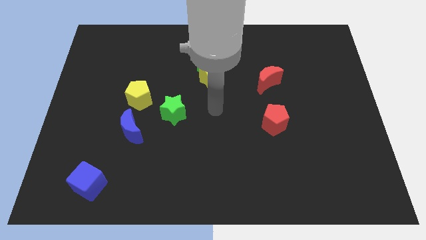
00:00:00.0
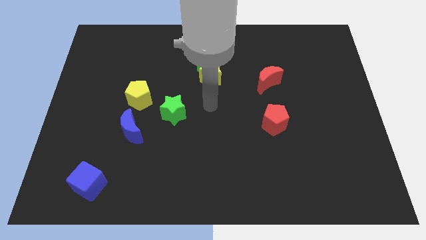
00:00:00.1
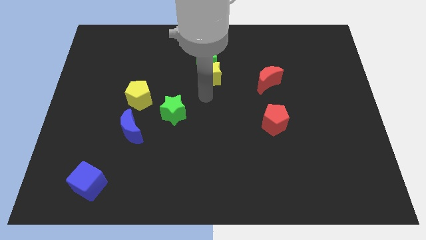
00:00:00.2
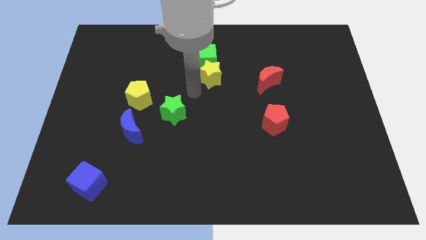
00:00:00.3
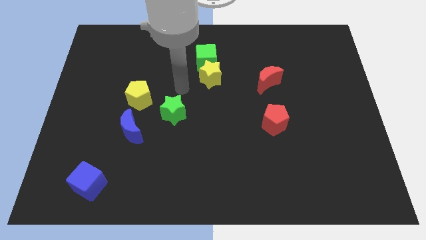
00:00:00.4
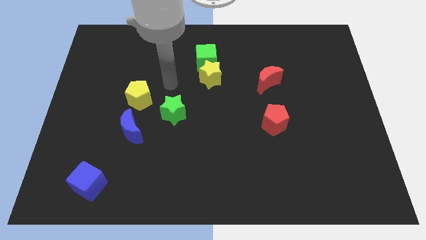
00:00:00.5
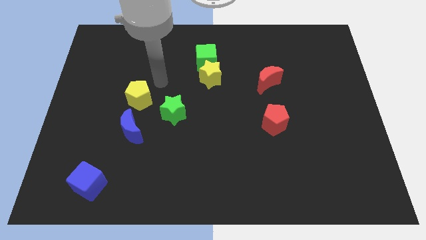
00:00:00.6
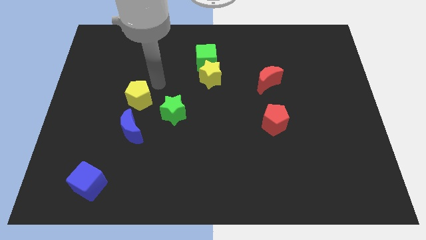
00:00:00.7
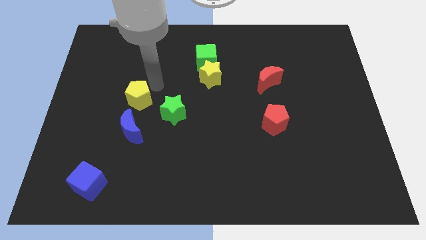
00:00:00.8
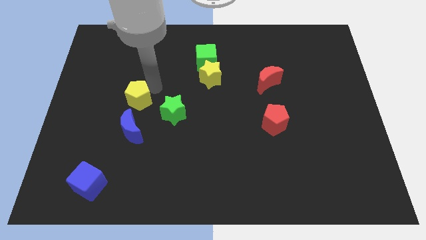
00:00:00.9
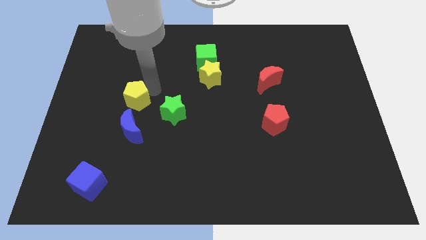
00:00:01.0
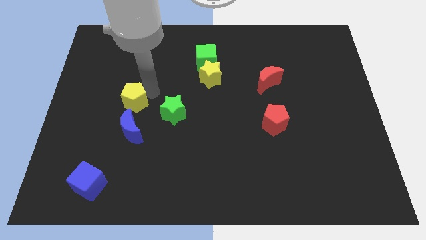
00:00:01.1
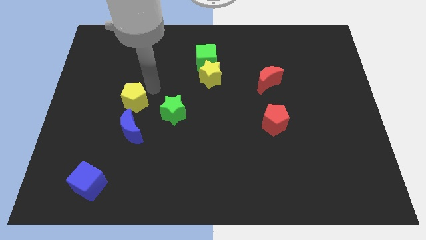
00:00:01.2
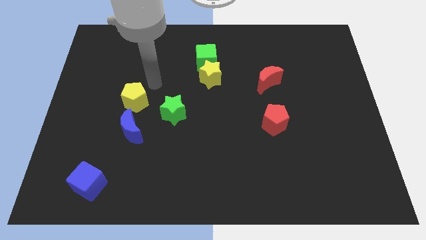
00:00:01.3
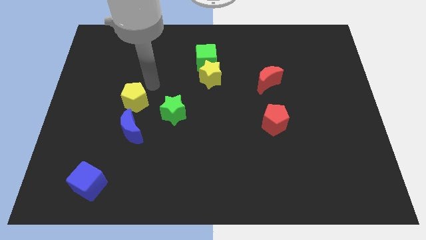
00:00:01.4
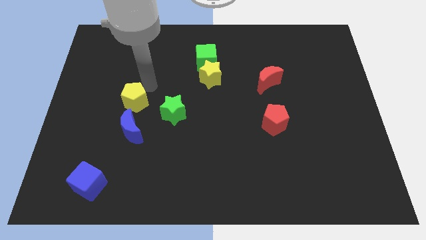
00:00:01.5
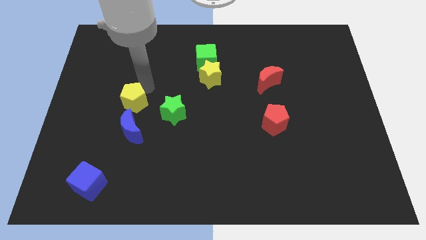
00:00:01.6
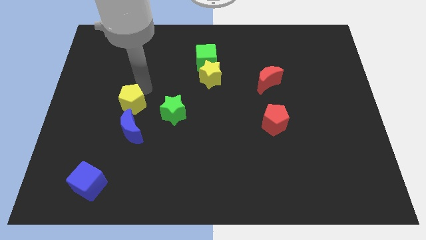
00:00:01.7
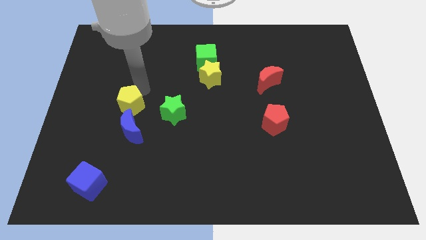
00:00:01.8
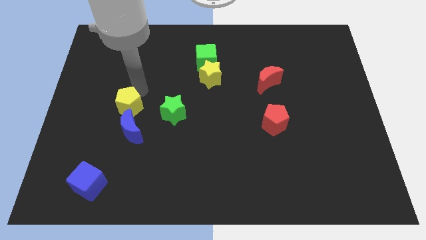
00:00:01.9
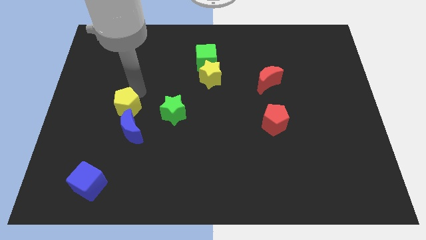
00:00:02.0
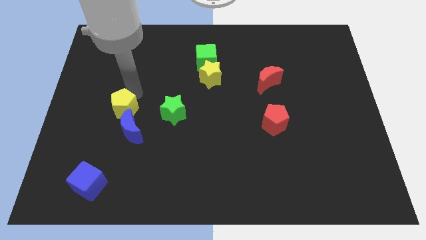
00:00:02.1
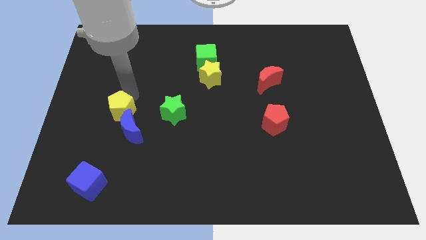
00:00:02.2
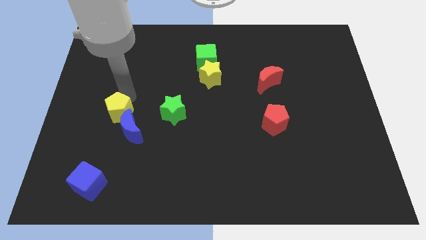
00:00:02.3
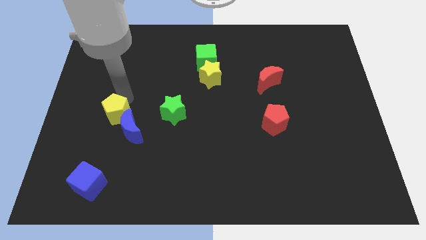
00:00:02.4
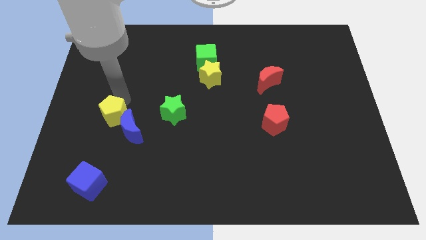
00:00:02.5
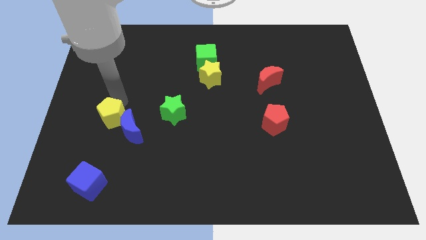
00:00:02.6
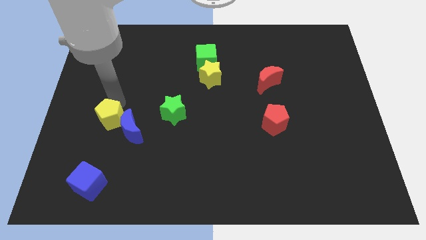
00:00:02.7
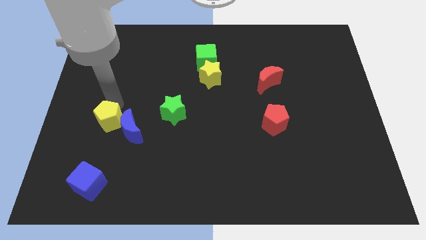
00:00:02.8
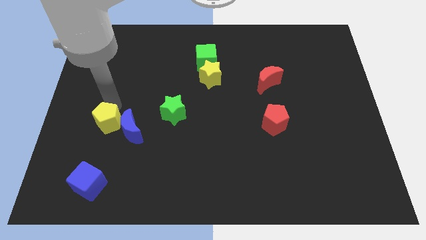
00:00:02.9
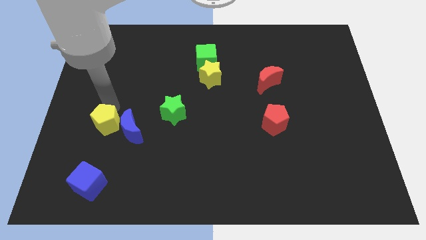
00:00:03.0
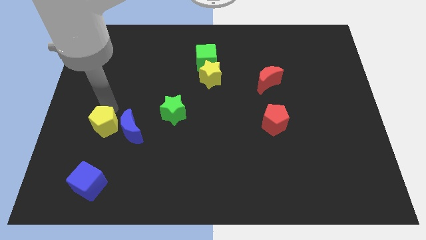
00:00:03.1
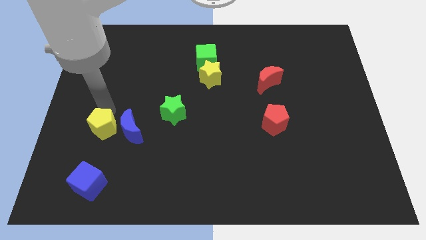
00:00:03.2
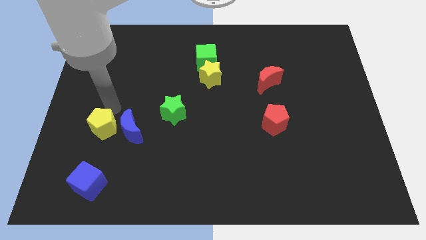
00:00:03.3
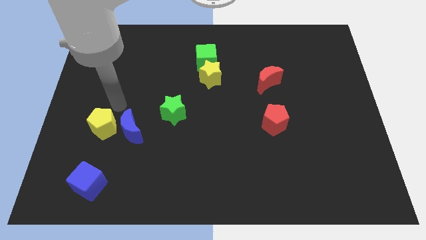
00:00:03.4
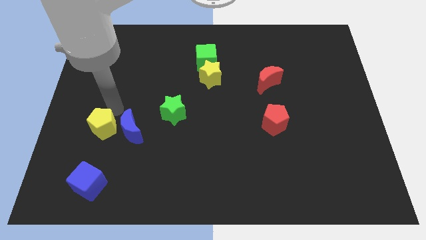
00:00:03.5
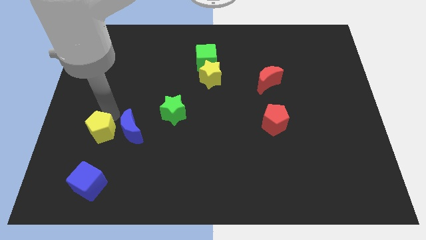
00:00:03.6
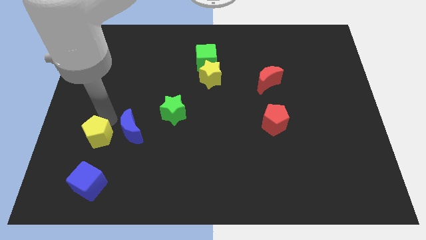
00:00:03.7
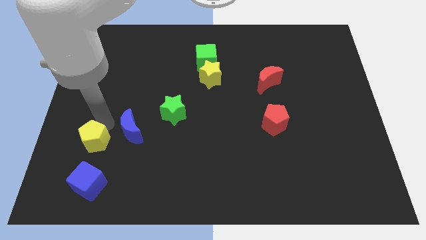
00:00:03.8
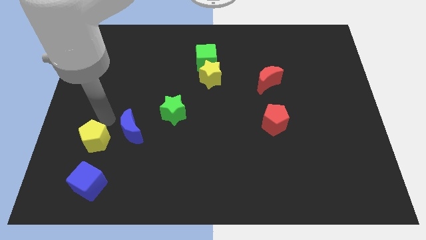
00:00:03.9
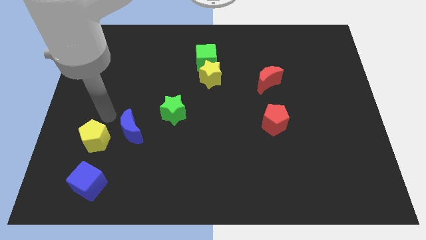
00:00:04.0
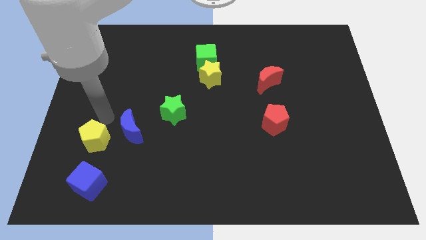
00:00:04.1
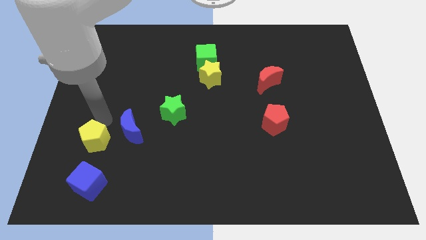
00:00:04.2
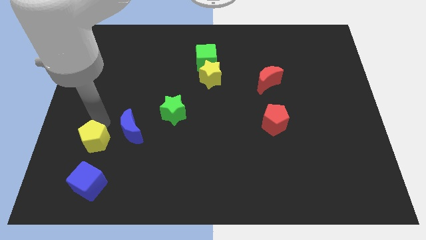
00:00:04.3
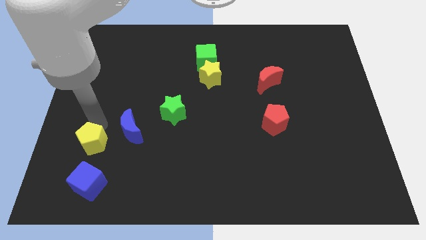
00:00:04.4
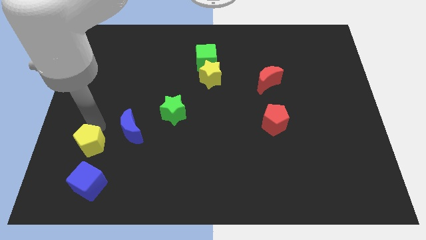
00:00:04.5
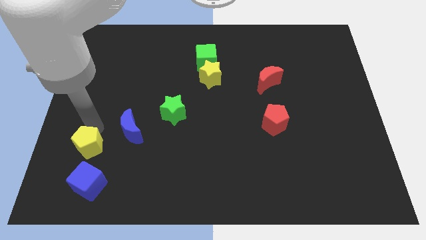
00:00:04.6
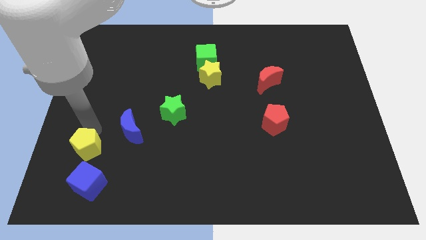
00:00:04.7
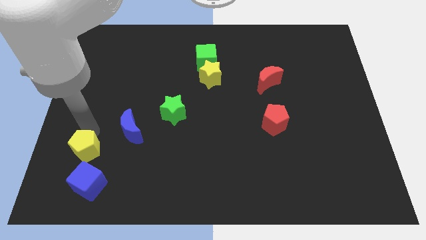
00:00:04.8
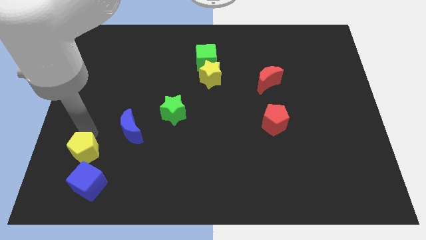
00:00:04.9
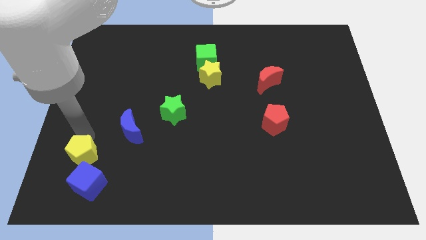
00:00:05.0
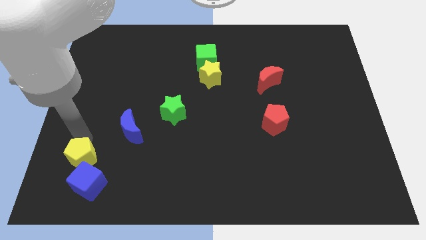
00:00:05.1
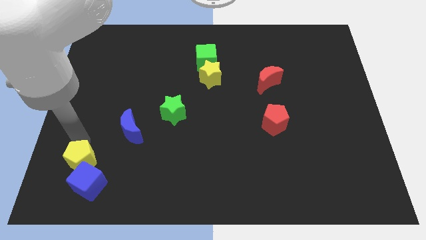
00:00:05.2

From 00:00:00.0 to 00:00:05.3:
push the yellow pentagon towards the blue cube

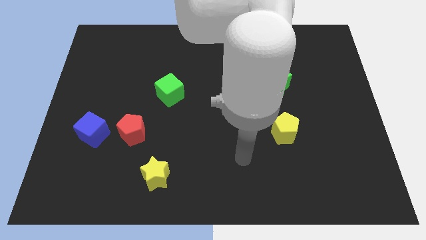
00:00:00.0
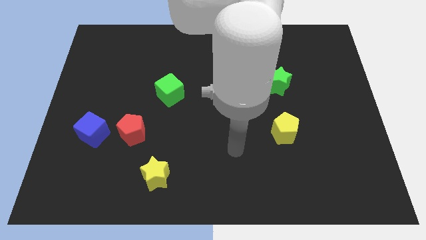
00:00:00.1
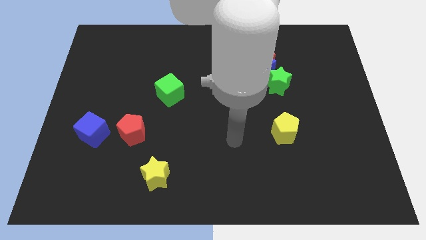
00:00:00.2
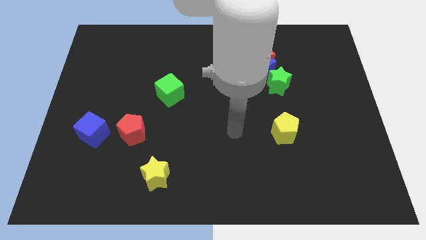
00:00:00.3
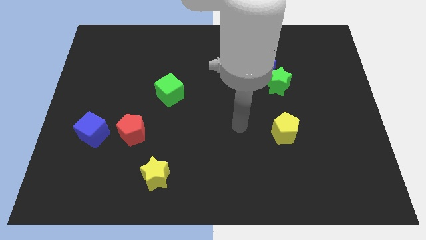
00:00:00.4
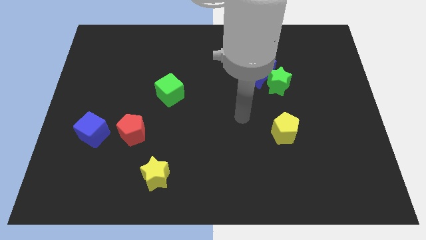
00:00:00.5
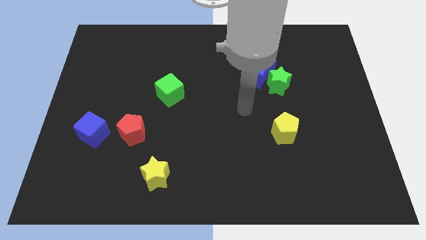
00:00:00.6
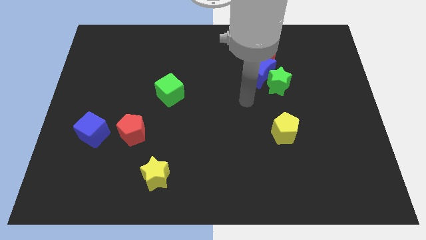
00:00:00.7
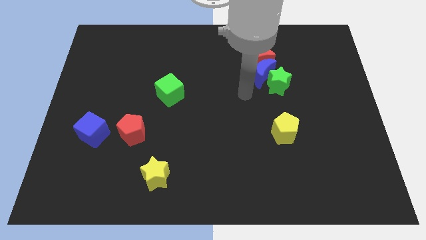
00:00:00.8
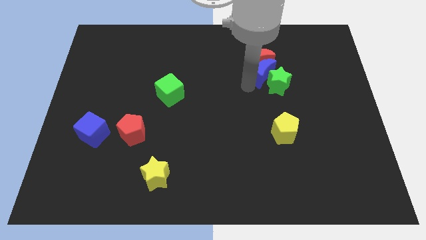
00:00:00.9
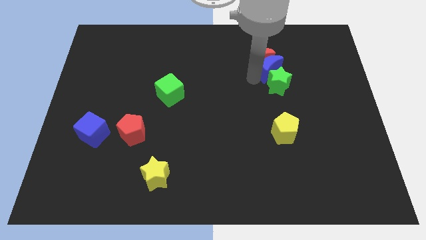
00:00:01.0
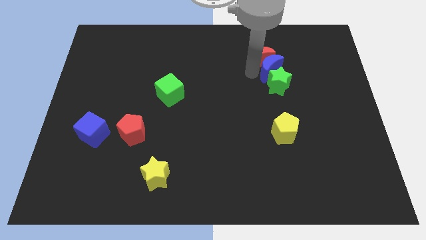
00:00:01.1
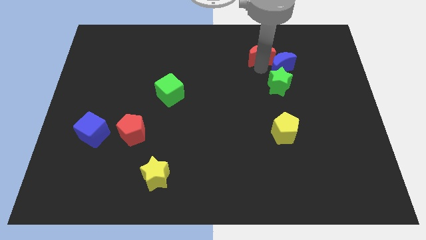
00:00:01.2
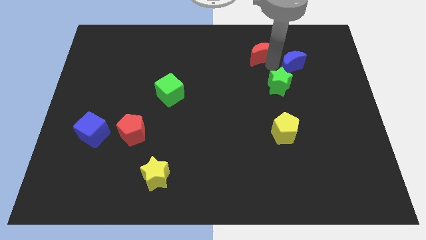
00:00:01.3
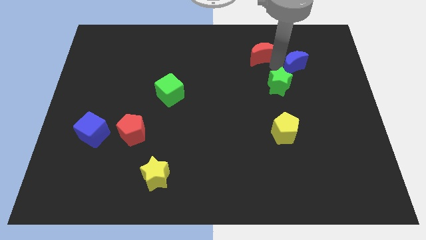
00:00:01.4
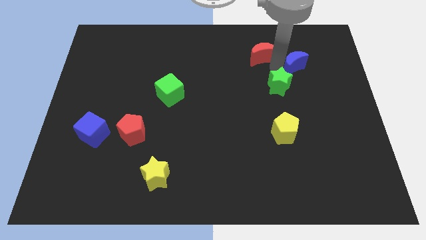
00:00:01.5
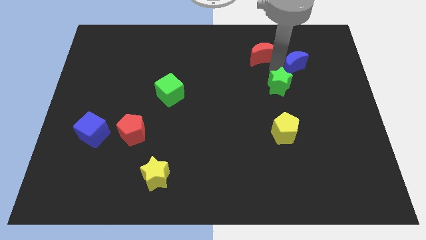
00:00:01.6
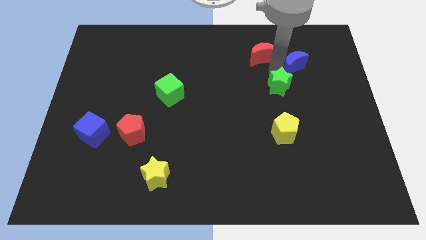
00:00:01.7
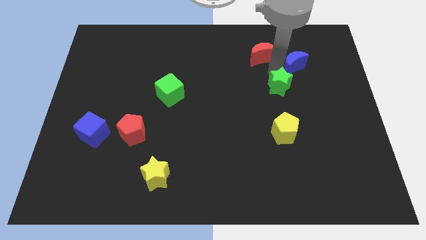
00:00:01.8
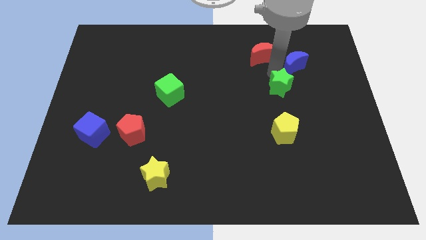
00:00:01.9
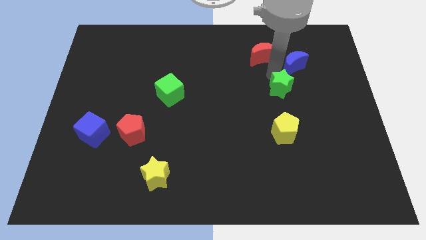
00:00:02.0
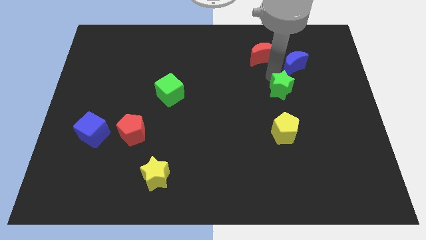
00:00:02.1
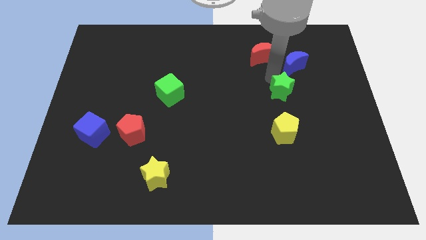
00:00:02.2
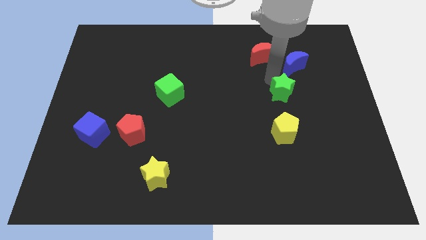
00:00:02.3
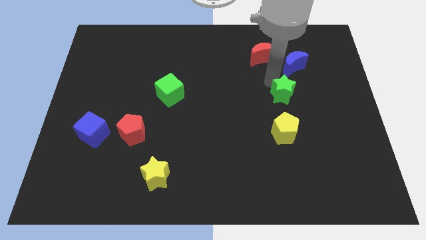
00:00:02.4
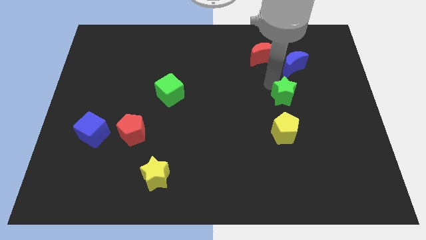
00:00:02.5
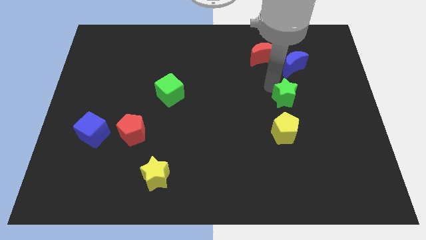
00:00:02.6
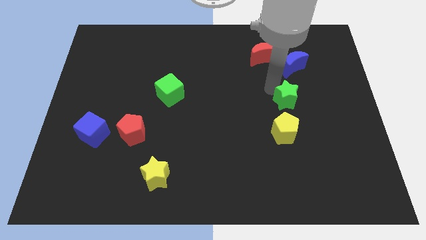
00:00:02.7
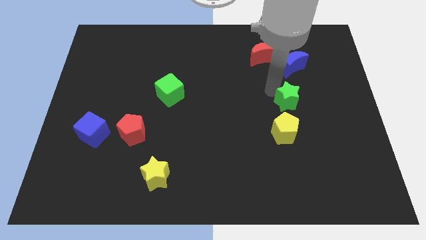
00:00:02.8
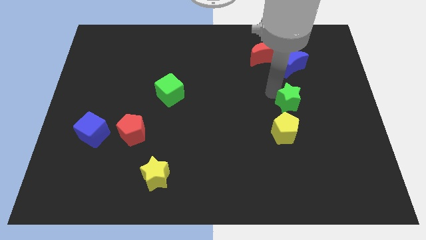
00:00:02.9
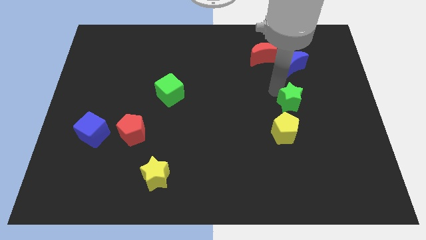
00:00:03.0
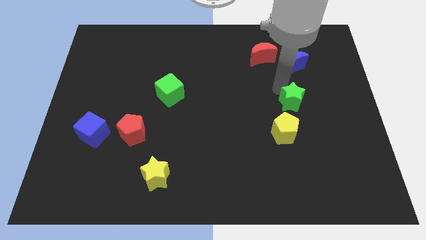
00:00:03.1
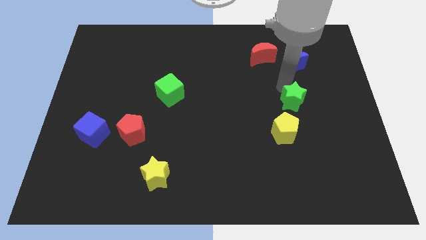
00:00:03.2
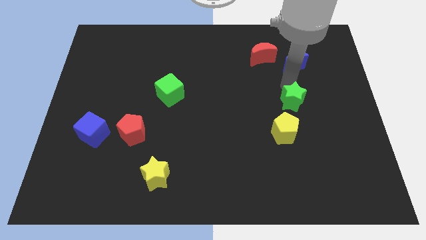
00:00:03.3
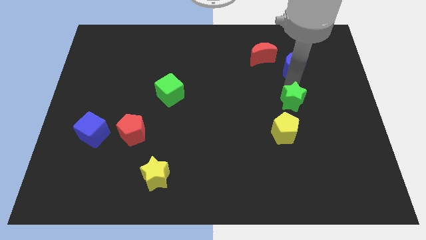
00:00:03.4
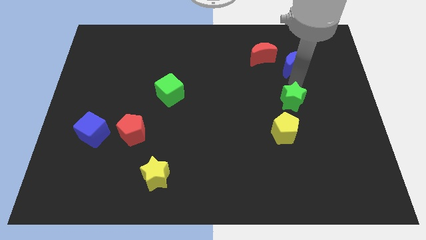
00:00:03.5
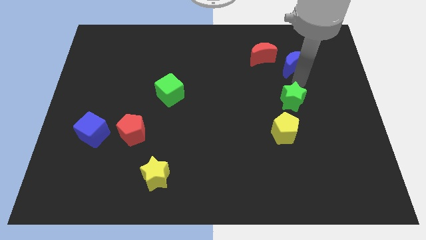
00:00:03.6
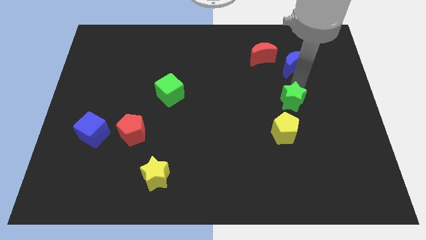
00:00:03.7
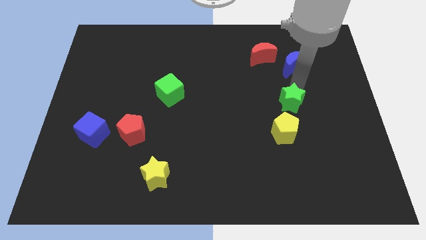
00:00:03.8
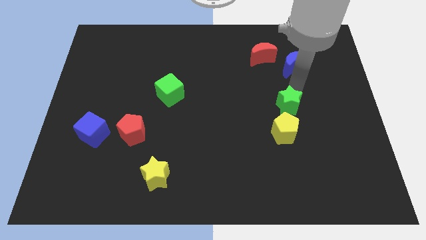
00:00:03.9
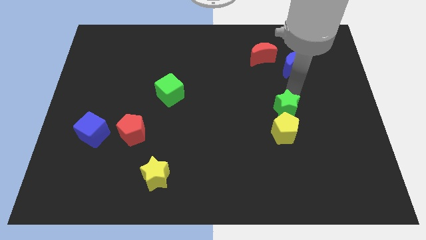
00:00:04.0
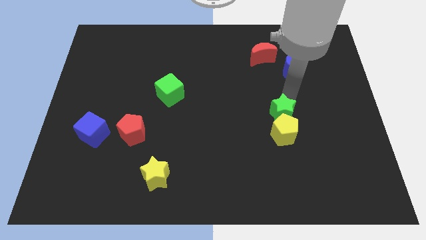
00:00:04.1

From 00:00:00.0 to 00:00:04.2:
slide the green star close to the yellow pentagon
